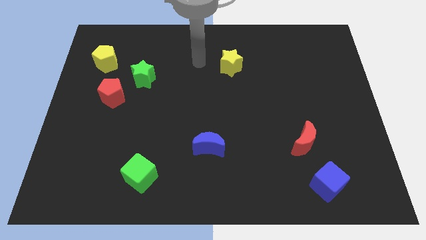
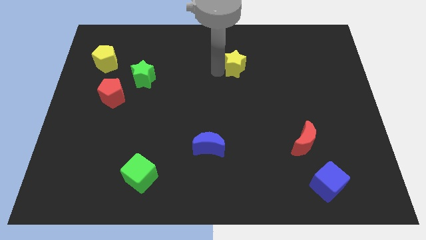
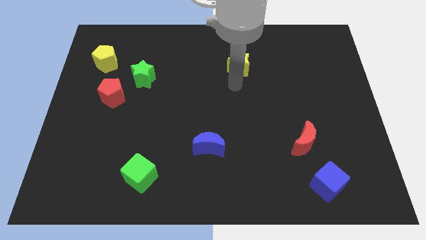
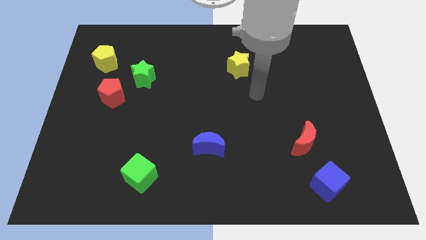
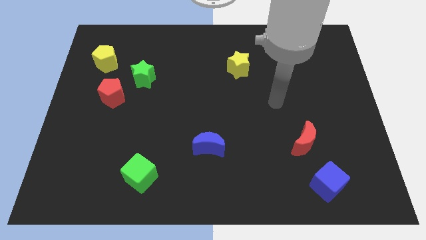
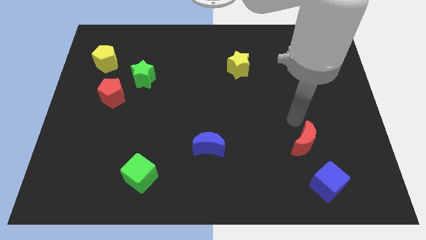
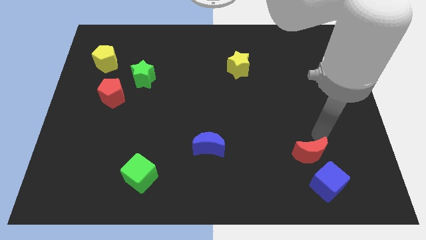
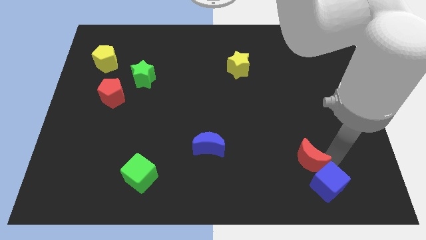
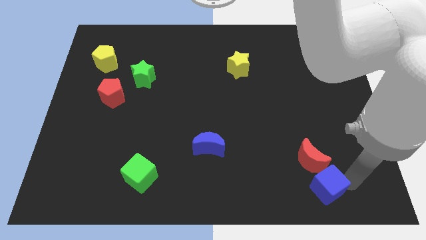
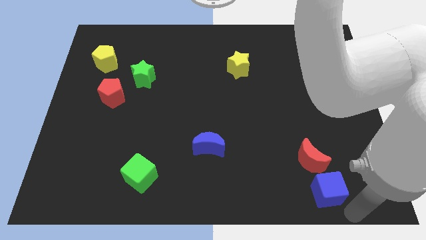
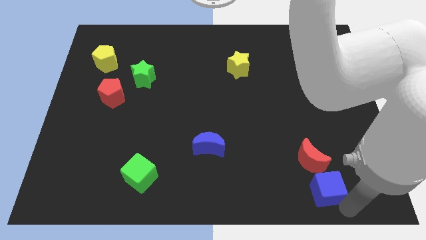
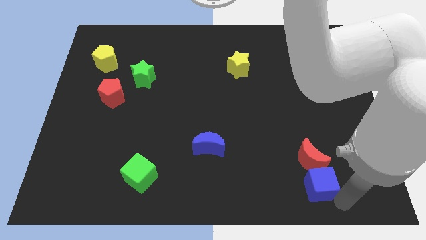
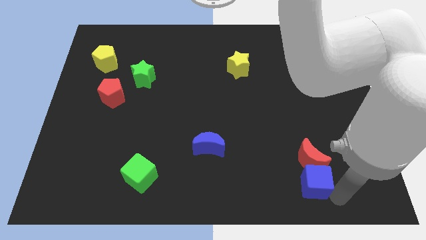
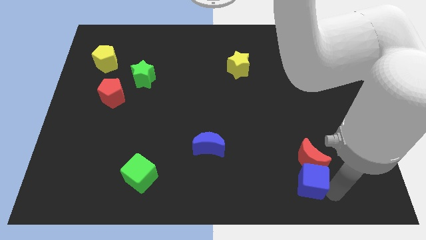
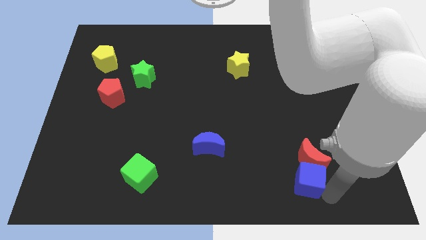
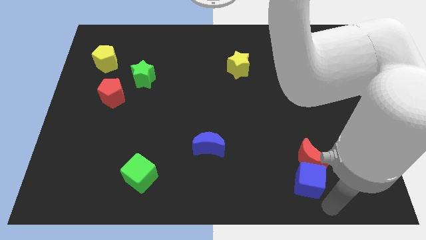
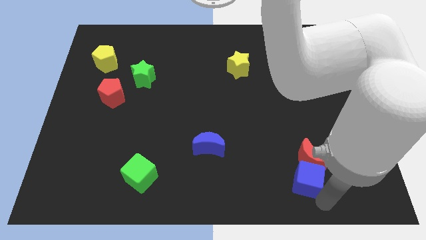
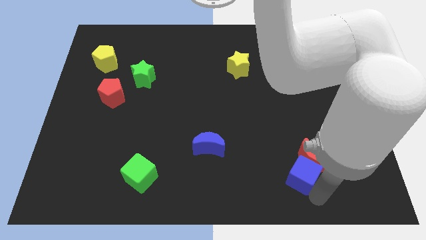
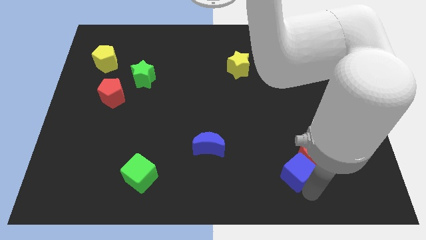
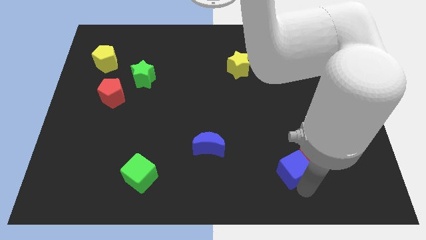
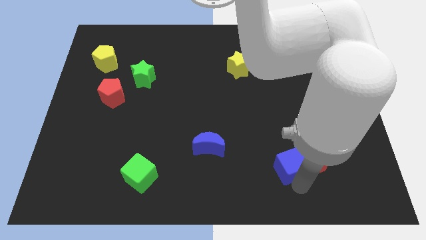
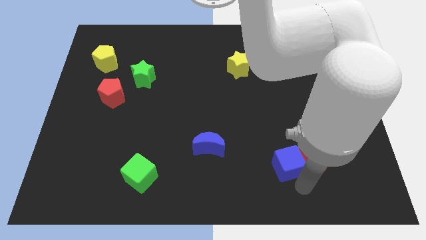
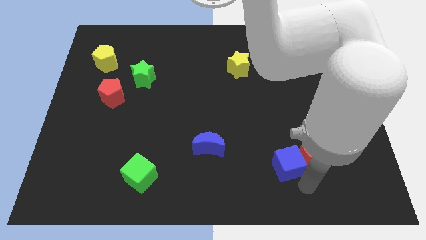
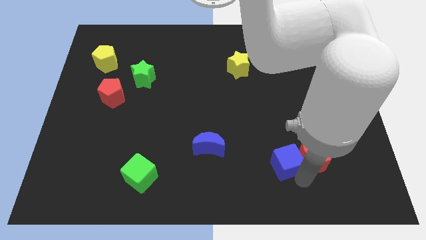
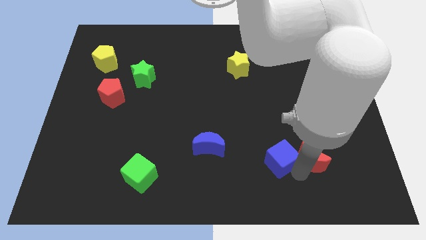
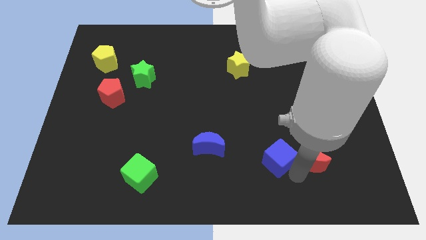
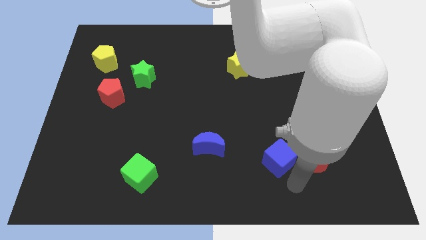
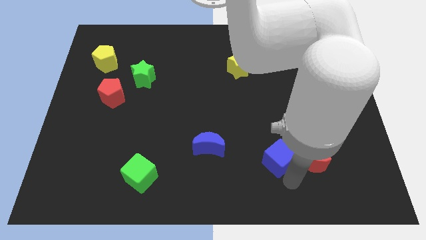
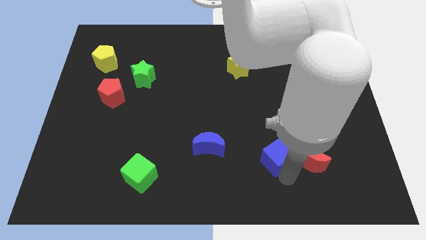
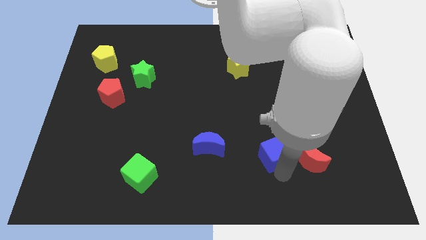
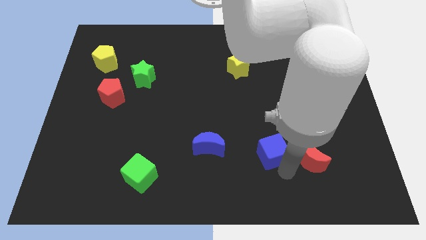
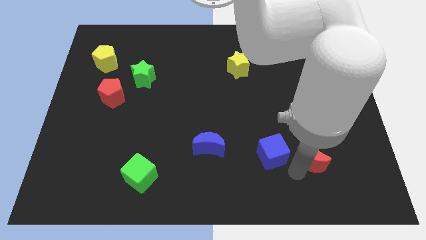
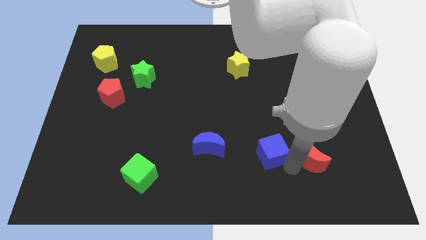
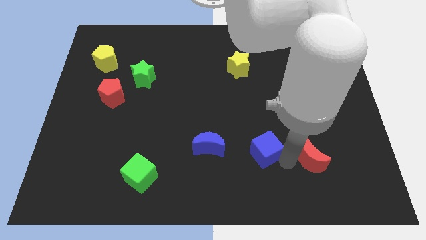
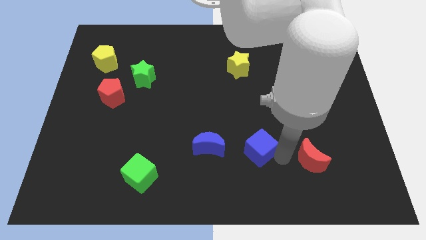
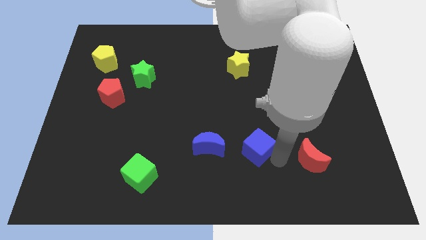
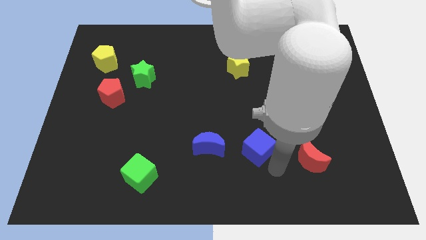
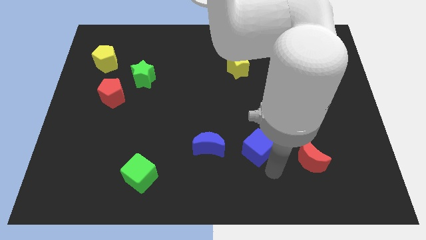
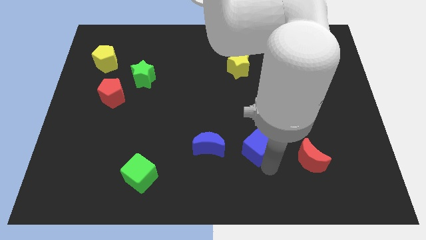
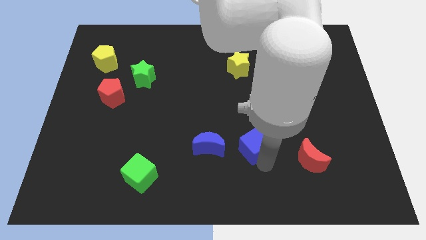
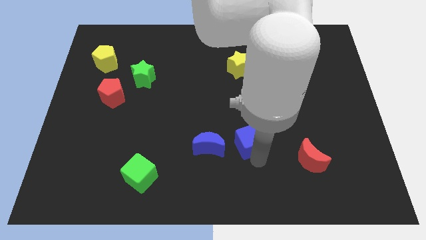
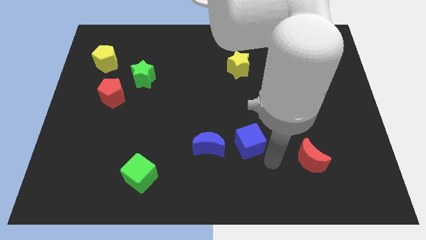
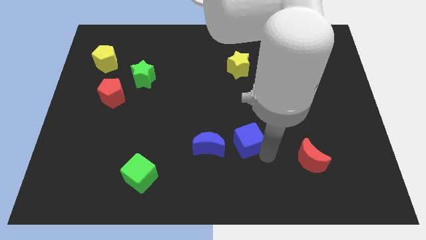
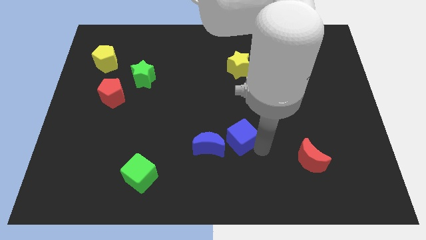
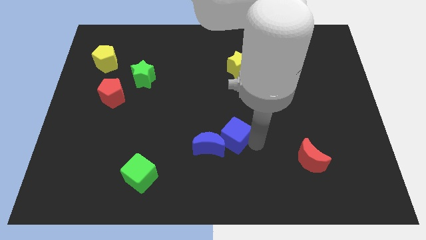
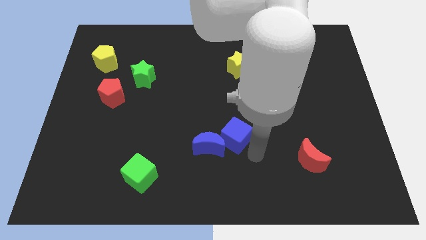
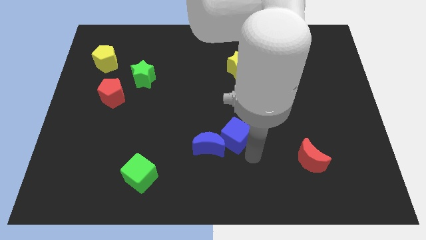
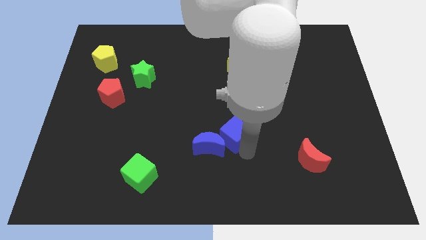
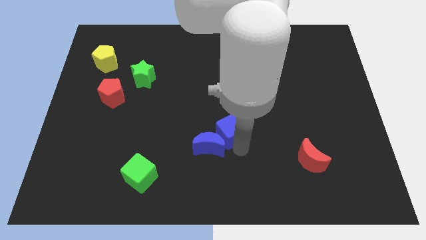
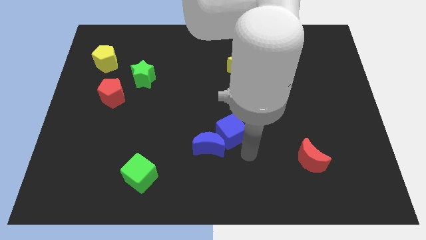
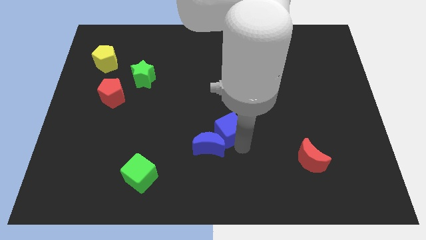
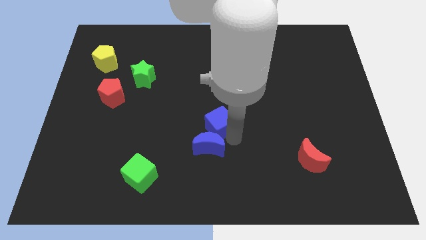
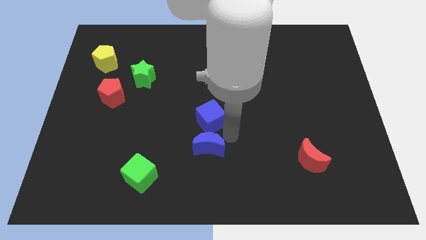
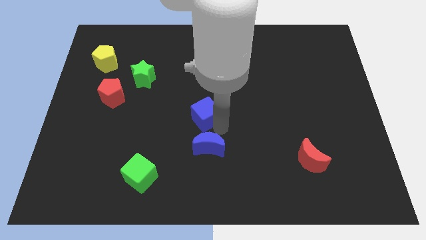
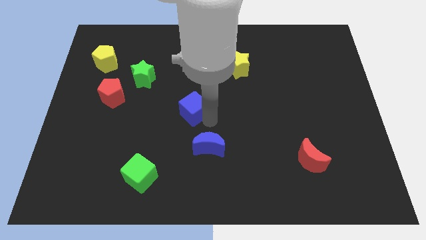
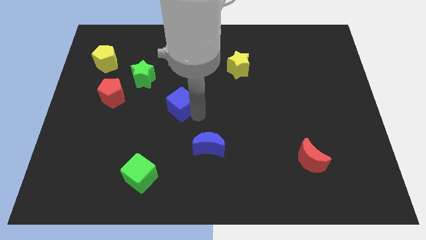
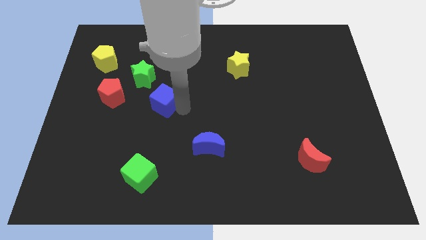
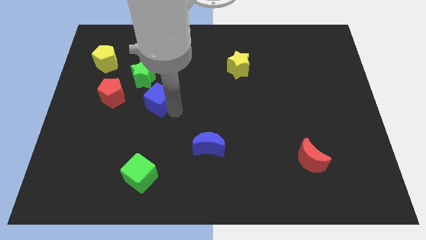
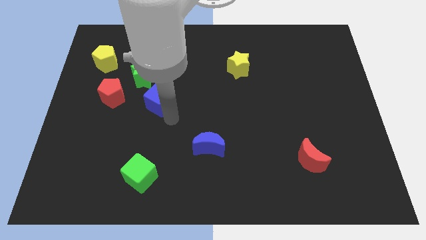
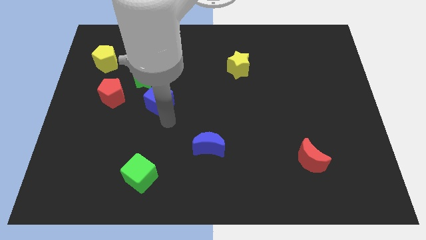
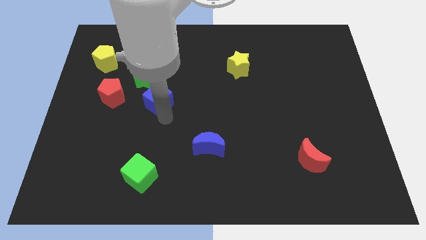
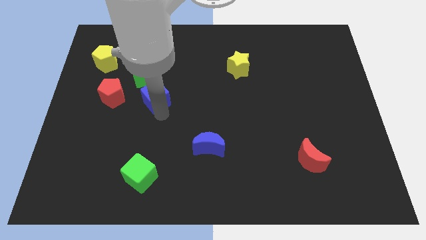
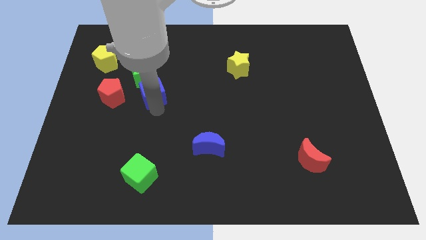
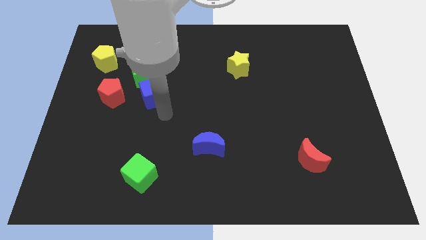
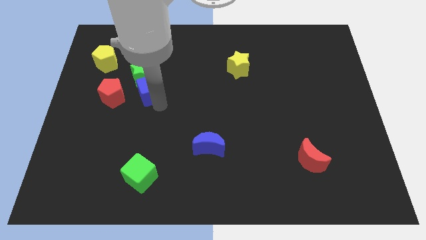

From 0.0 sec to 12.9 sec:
slide the blue cube to the green star

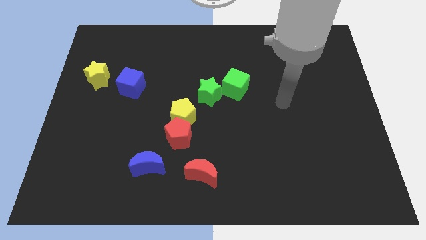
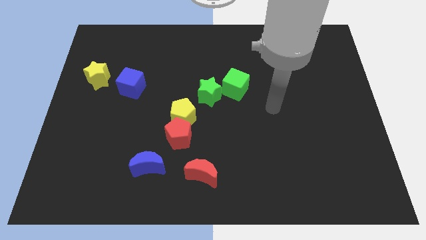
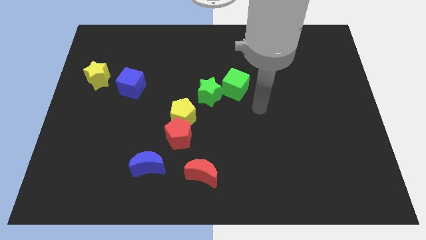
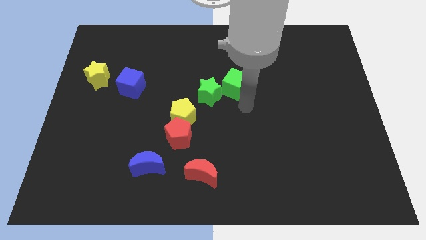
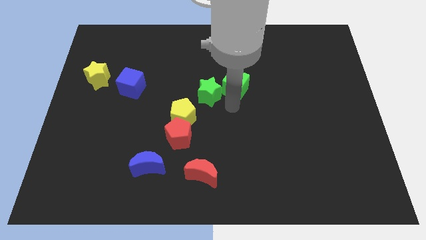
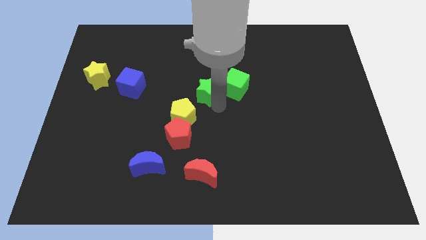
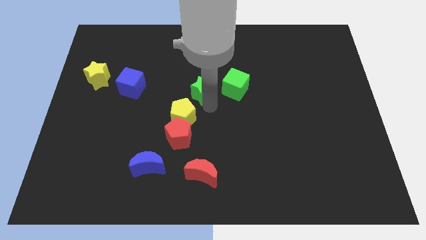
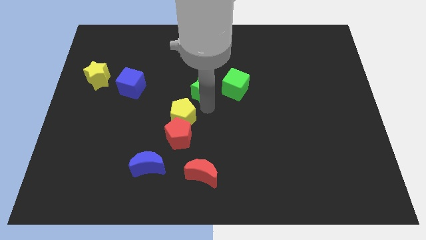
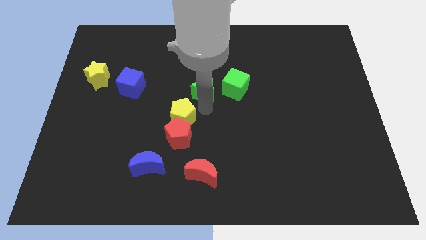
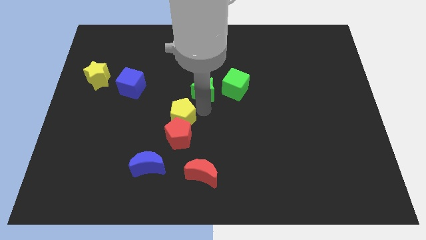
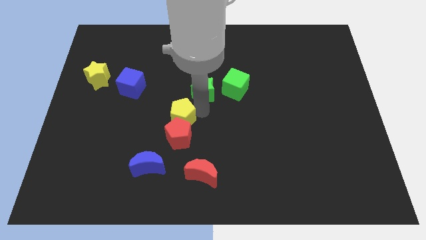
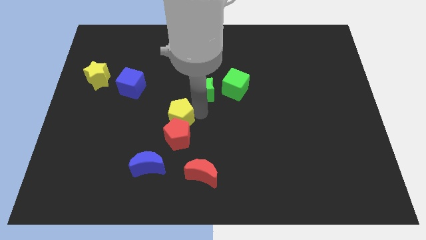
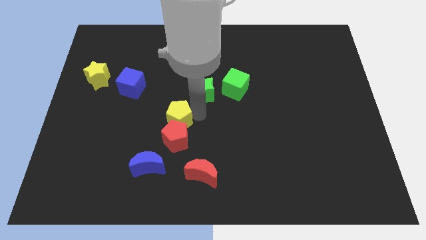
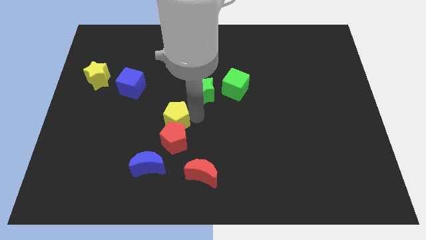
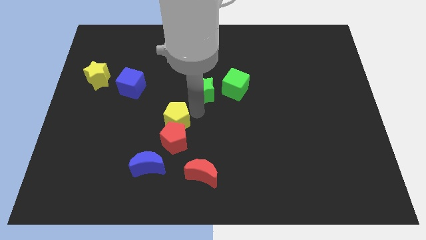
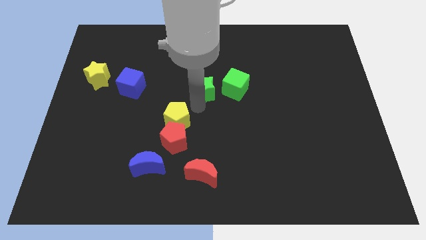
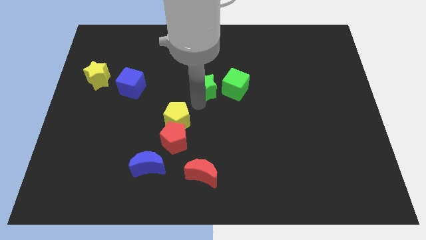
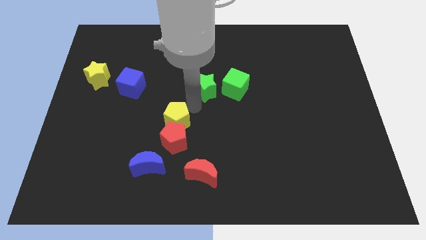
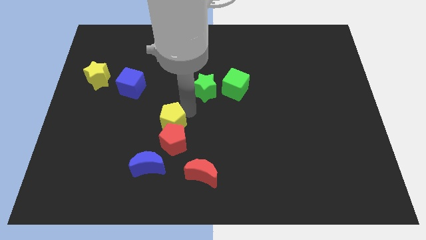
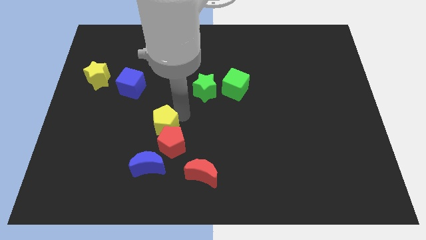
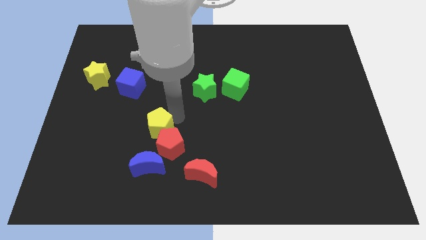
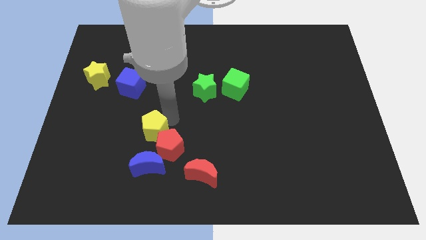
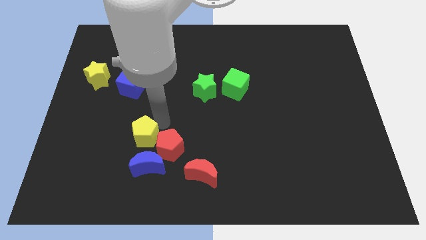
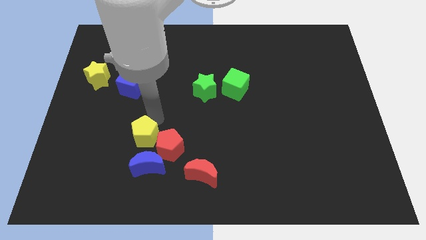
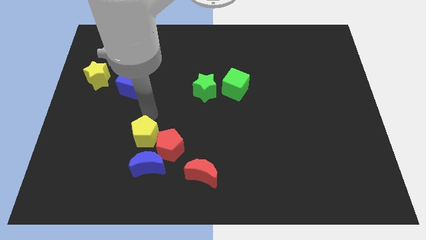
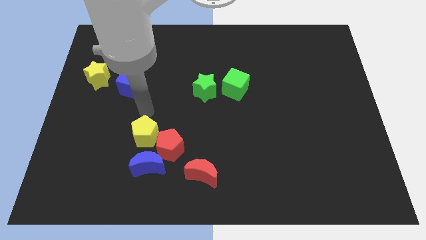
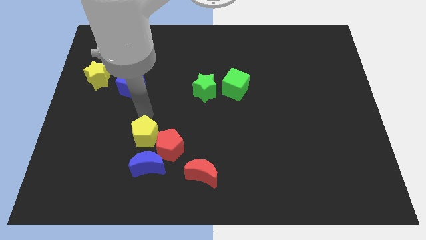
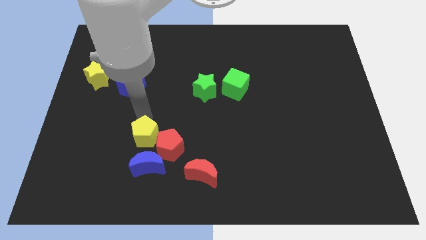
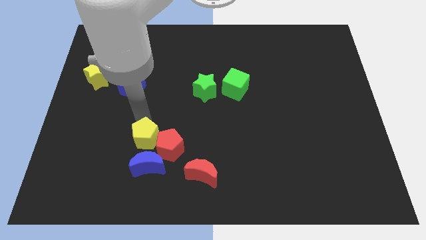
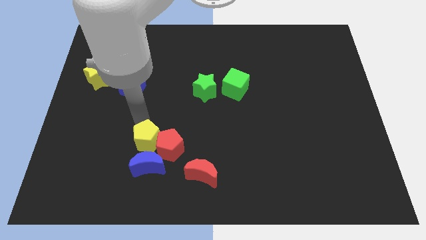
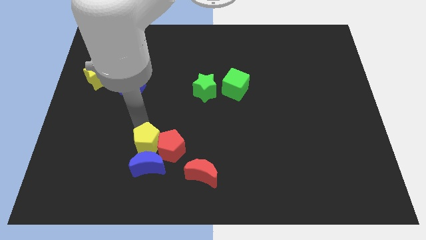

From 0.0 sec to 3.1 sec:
slide the yellow pentagon next to the blue moon
